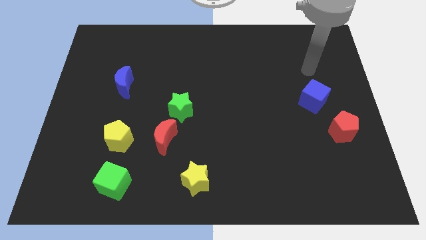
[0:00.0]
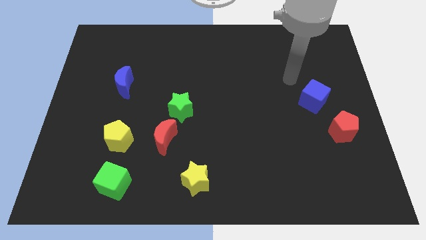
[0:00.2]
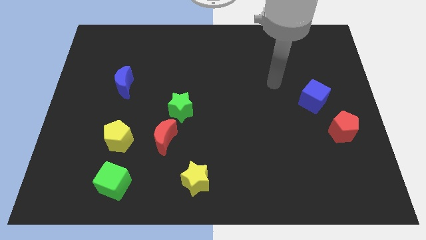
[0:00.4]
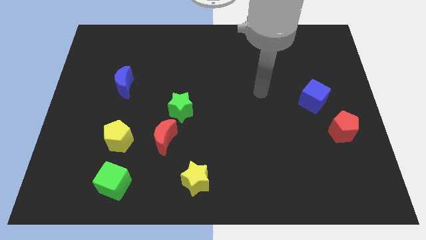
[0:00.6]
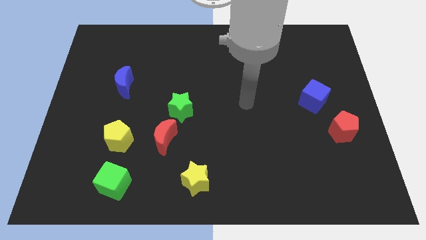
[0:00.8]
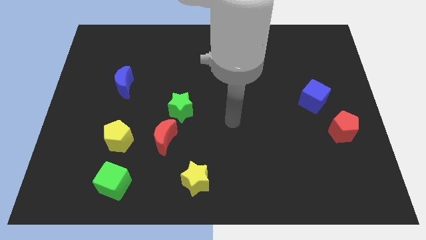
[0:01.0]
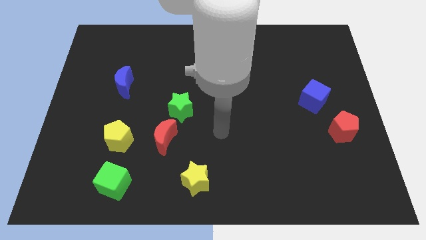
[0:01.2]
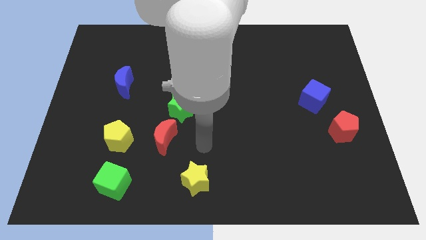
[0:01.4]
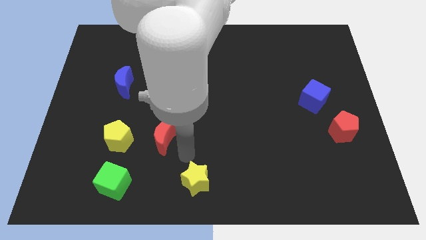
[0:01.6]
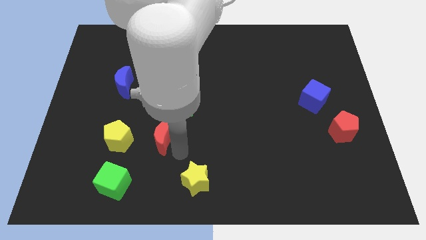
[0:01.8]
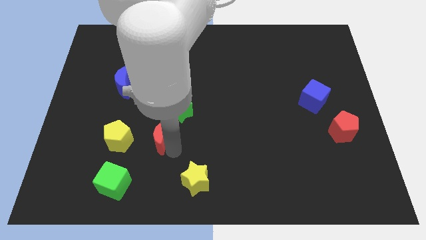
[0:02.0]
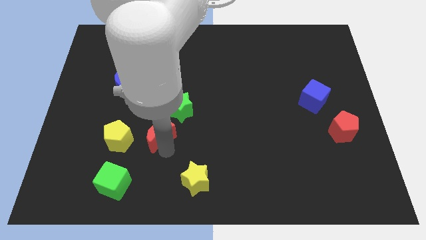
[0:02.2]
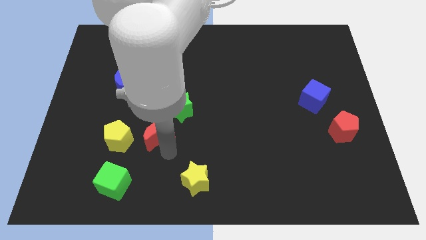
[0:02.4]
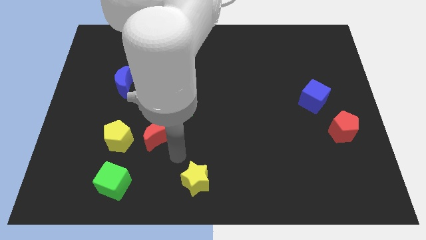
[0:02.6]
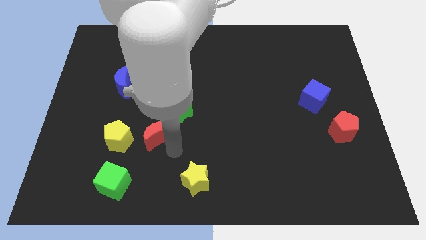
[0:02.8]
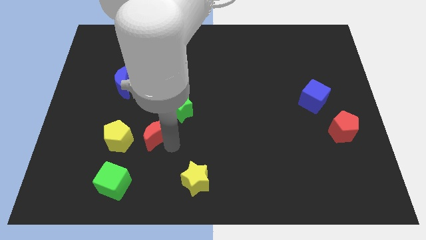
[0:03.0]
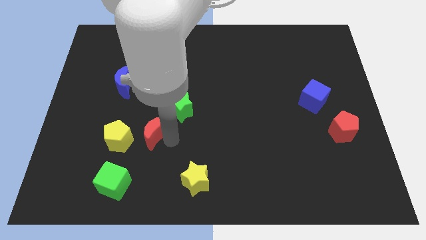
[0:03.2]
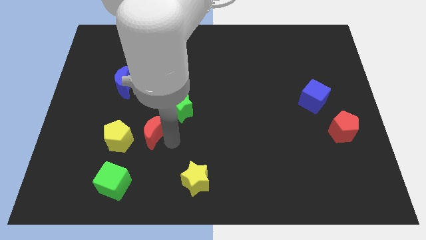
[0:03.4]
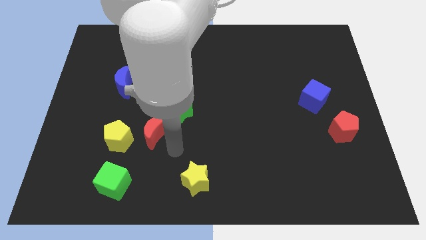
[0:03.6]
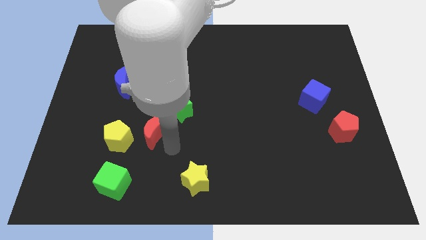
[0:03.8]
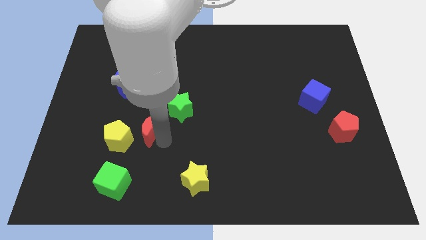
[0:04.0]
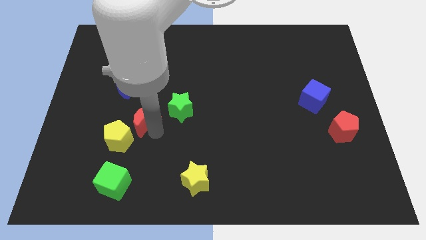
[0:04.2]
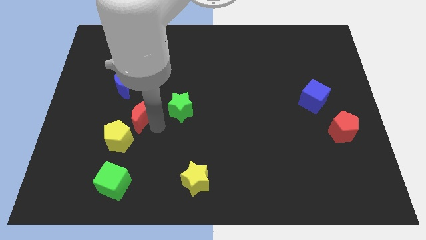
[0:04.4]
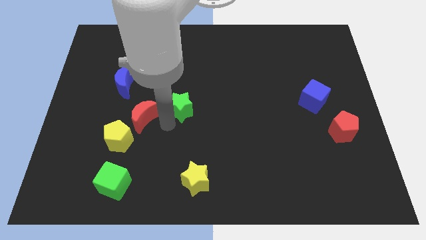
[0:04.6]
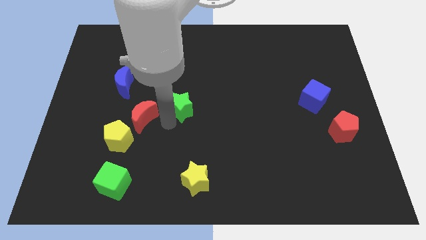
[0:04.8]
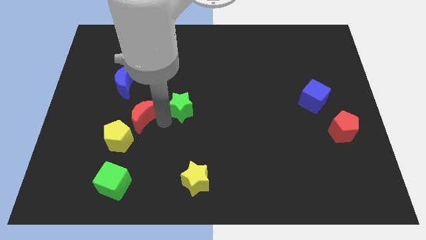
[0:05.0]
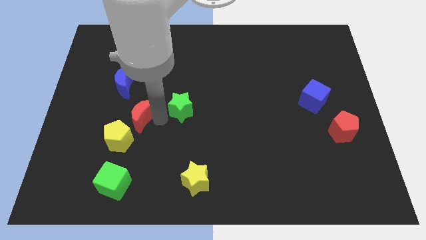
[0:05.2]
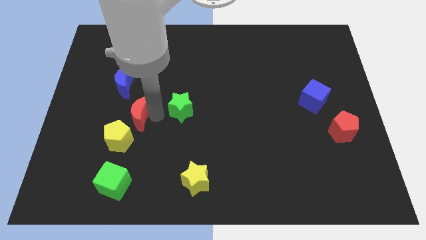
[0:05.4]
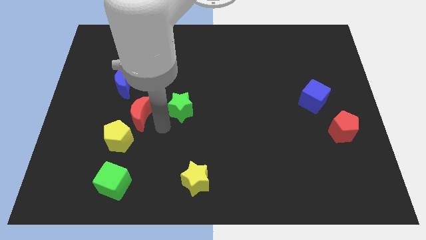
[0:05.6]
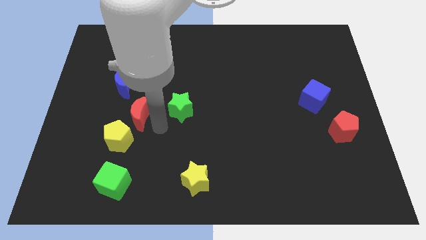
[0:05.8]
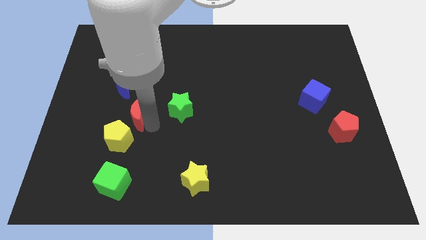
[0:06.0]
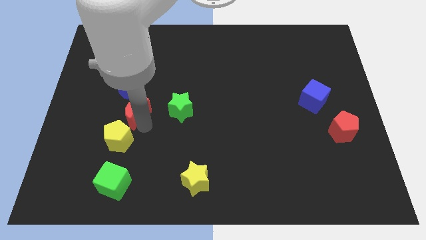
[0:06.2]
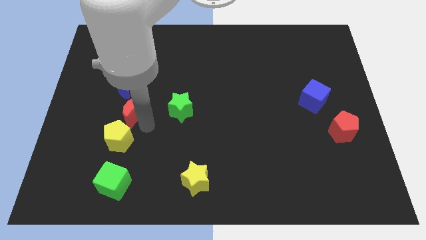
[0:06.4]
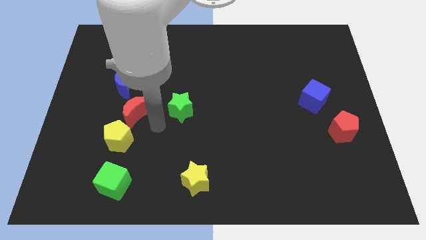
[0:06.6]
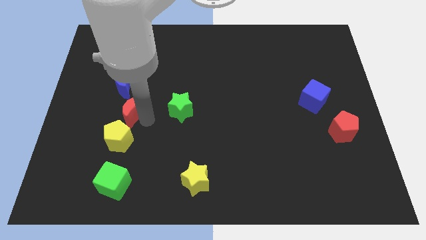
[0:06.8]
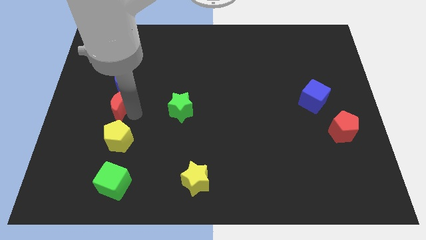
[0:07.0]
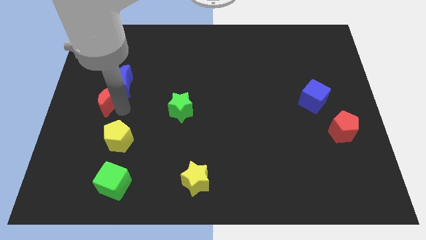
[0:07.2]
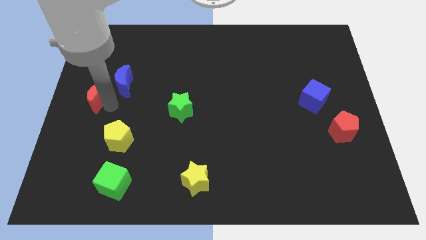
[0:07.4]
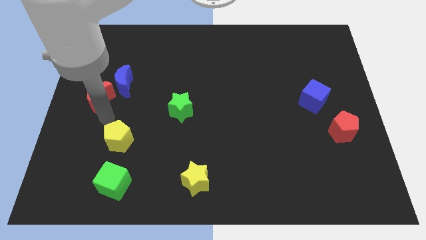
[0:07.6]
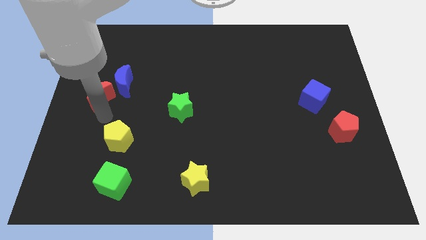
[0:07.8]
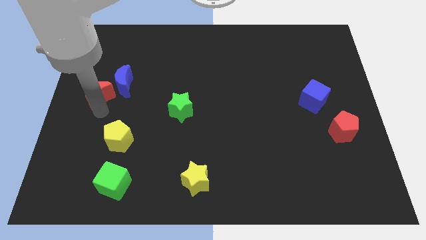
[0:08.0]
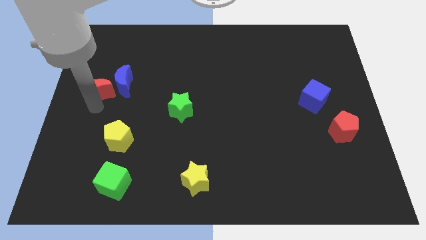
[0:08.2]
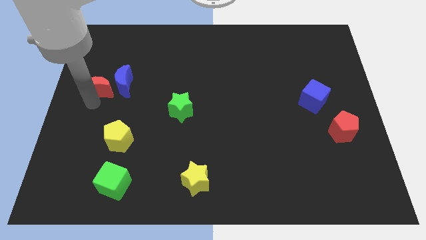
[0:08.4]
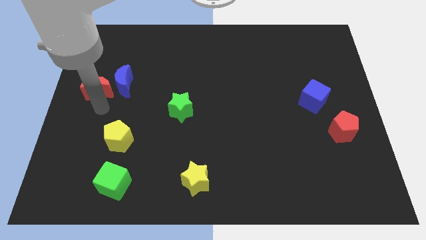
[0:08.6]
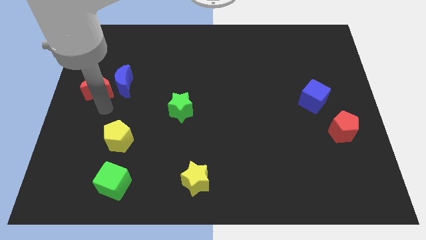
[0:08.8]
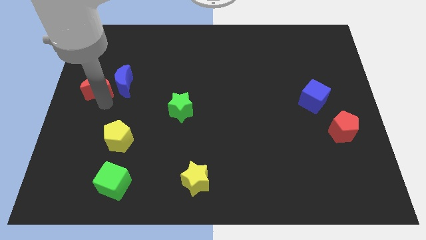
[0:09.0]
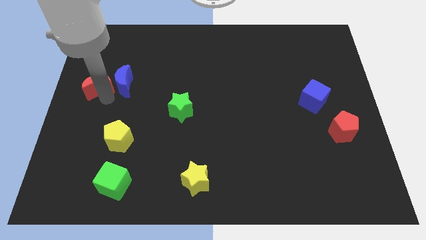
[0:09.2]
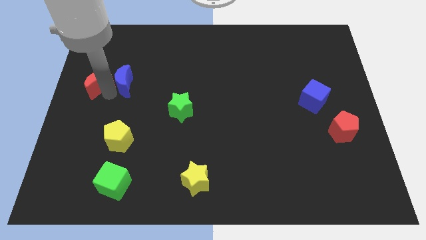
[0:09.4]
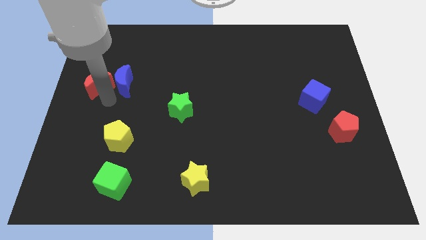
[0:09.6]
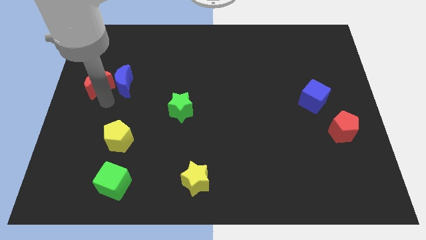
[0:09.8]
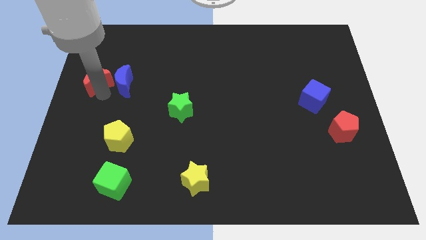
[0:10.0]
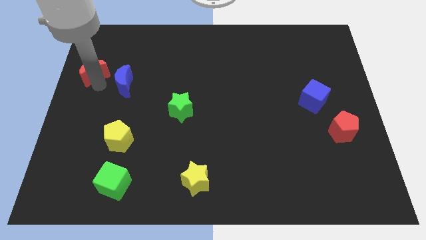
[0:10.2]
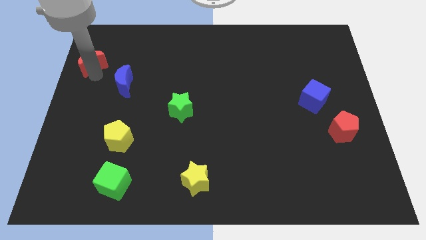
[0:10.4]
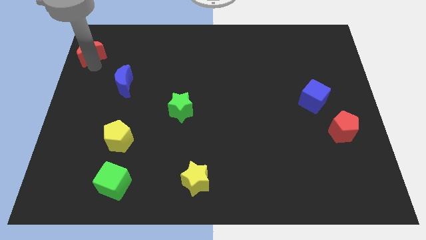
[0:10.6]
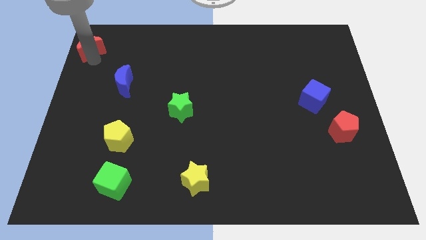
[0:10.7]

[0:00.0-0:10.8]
put the red moon to the upper left corner

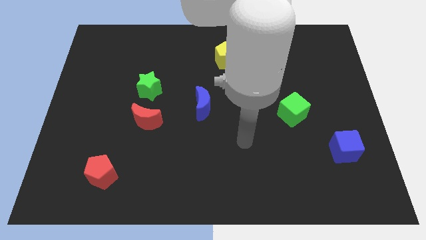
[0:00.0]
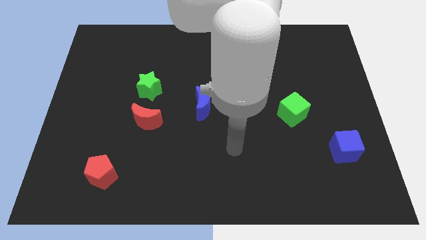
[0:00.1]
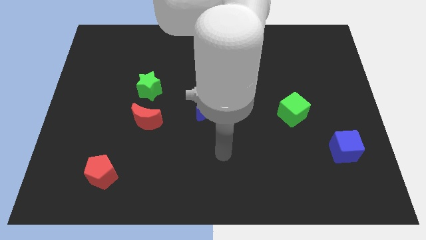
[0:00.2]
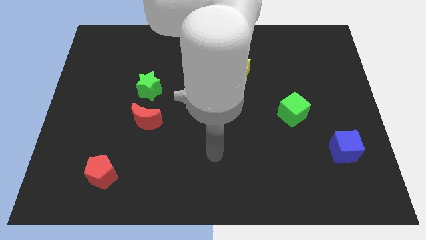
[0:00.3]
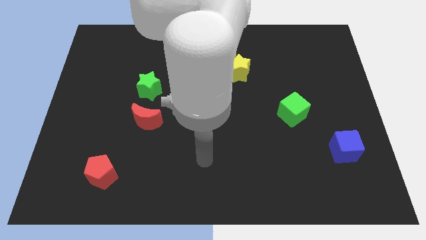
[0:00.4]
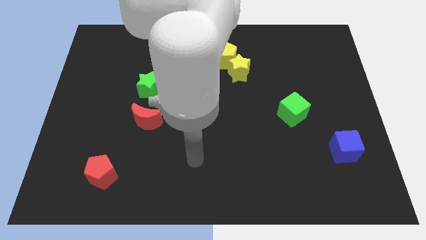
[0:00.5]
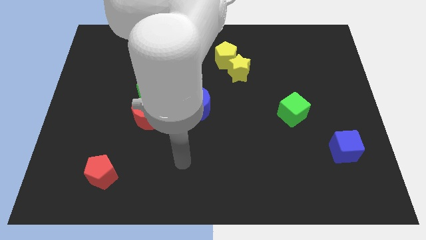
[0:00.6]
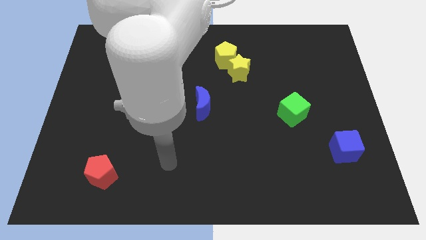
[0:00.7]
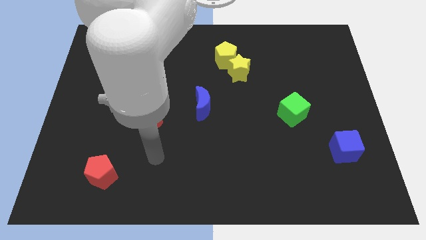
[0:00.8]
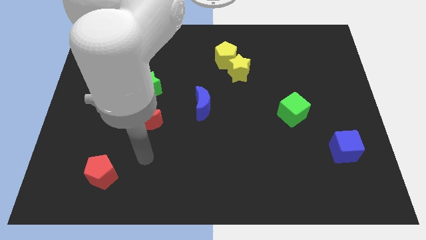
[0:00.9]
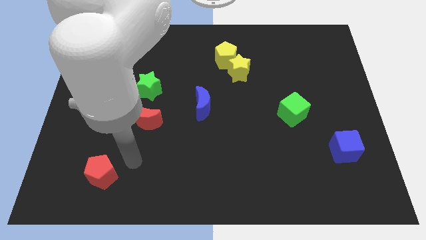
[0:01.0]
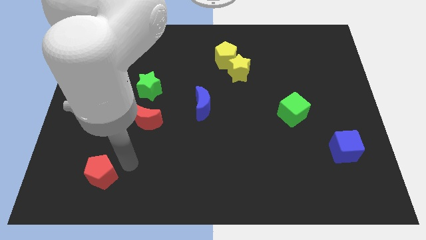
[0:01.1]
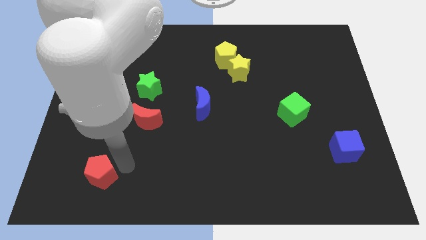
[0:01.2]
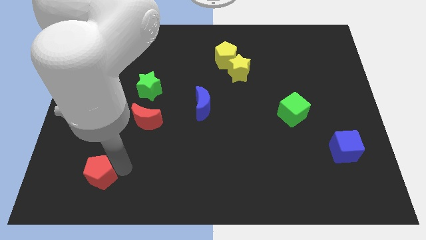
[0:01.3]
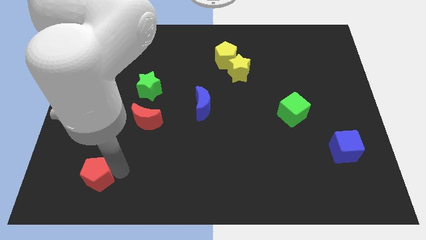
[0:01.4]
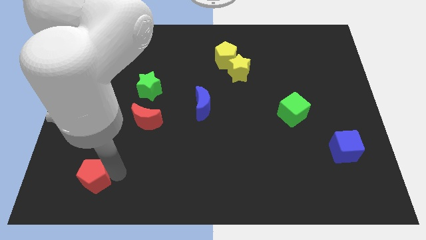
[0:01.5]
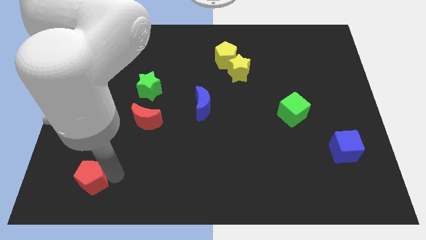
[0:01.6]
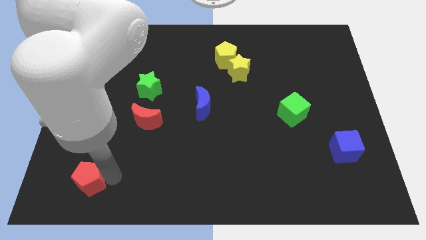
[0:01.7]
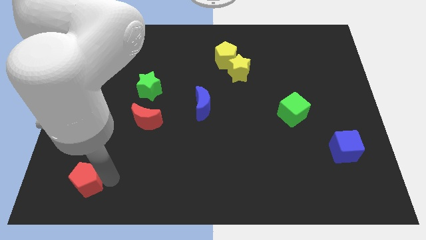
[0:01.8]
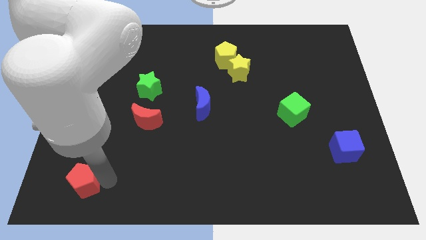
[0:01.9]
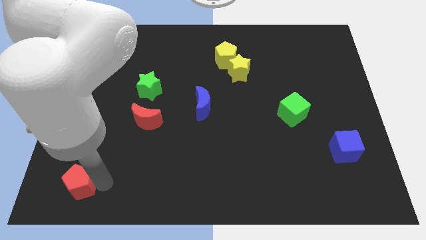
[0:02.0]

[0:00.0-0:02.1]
slide the red pentagon to the bottom left corner

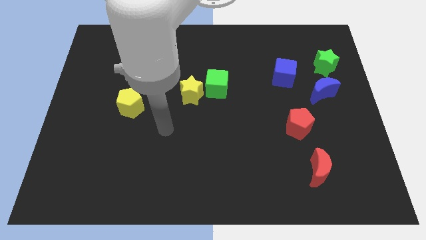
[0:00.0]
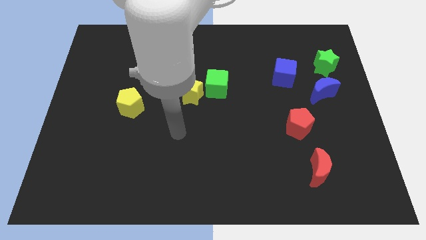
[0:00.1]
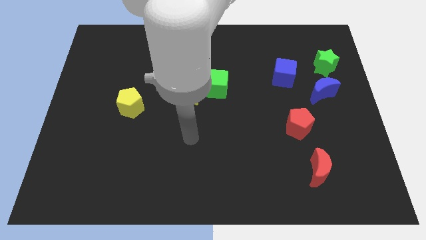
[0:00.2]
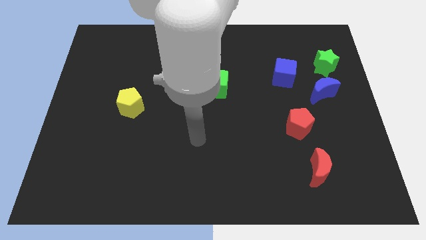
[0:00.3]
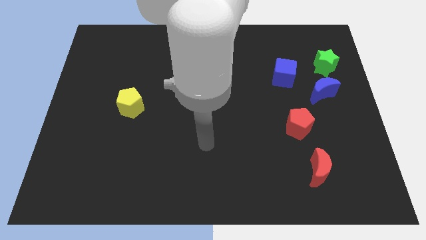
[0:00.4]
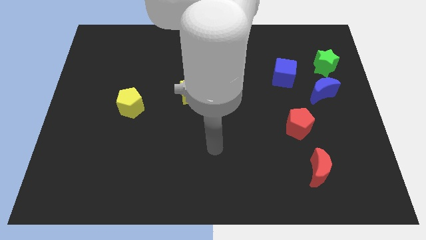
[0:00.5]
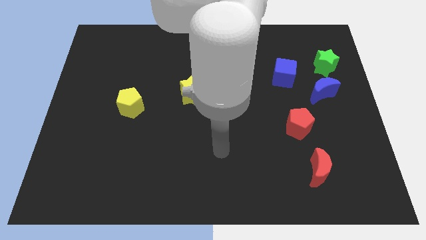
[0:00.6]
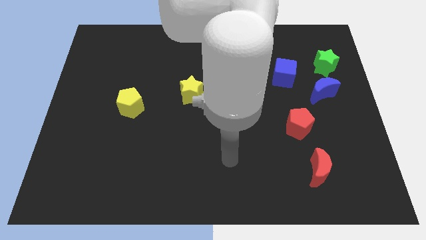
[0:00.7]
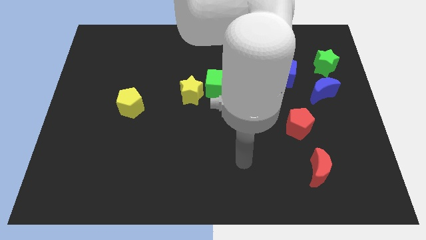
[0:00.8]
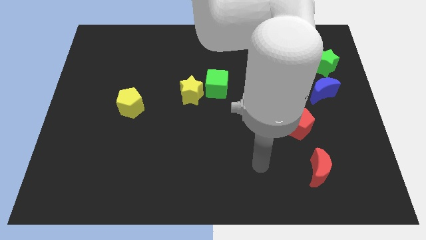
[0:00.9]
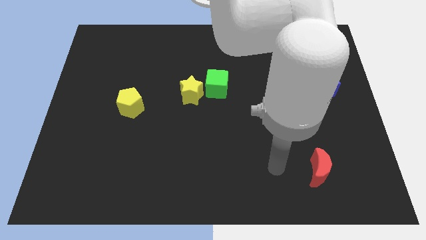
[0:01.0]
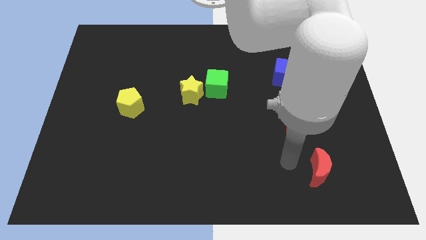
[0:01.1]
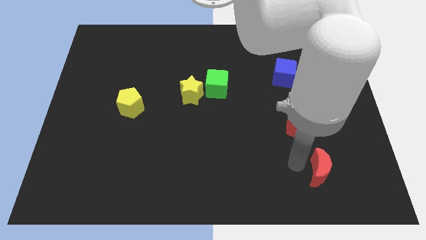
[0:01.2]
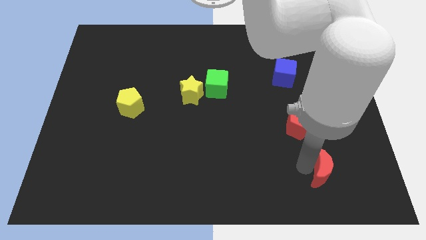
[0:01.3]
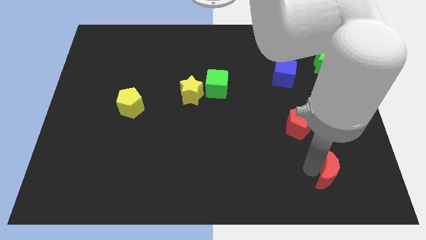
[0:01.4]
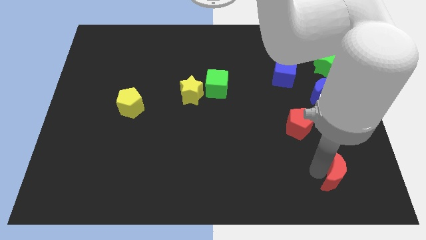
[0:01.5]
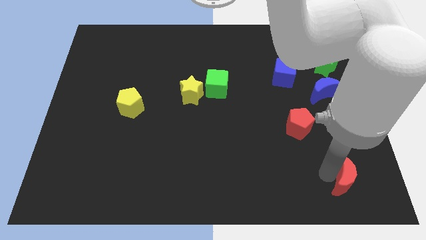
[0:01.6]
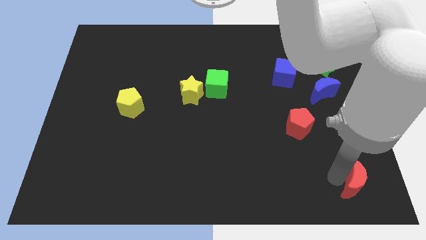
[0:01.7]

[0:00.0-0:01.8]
slide the red moon to the bottom right
